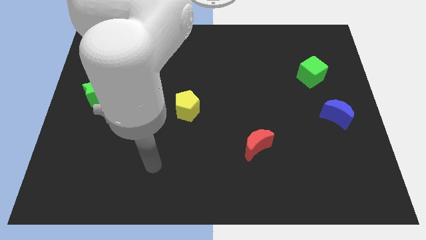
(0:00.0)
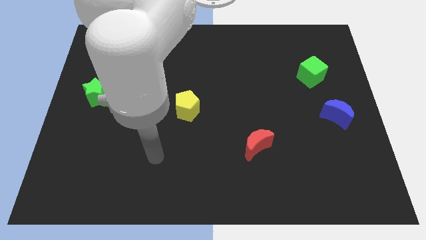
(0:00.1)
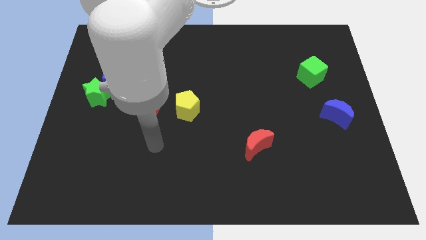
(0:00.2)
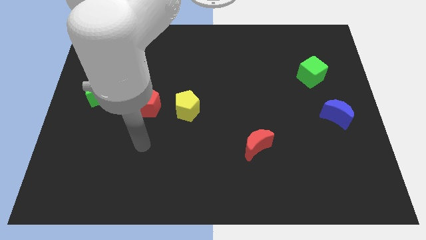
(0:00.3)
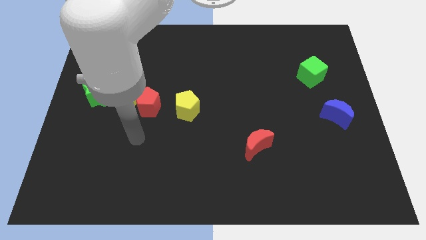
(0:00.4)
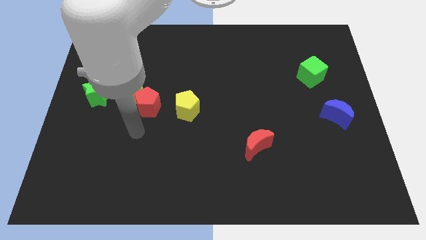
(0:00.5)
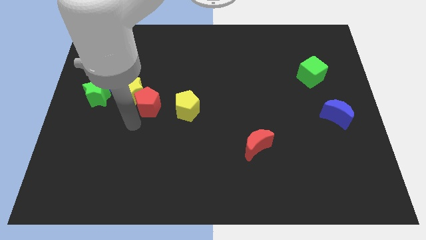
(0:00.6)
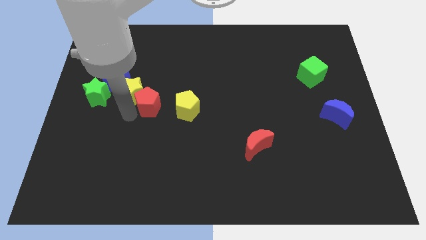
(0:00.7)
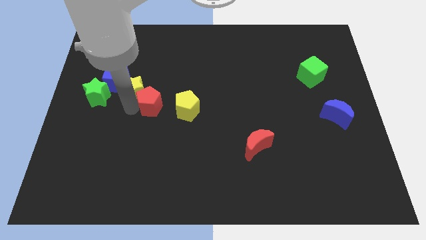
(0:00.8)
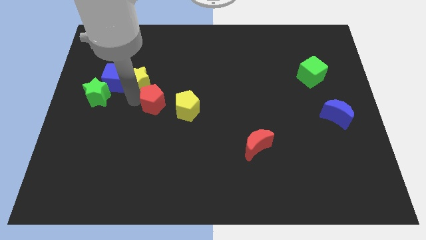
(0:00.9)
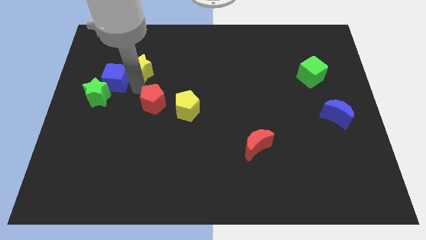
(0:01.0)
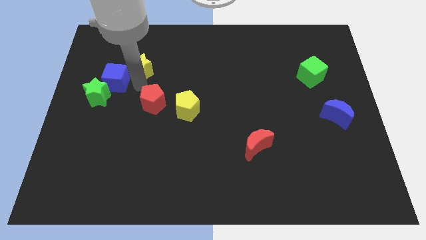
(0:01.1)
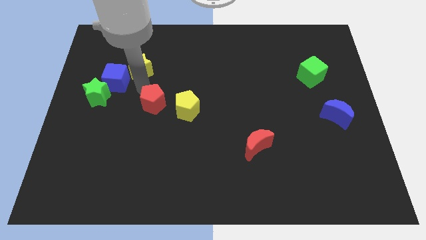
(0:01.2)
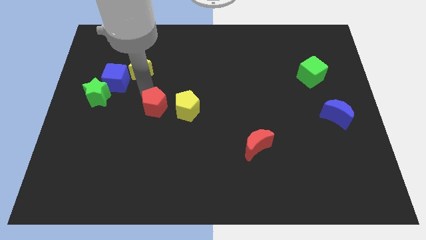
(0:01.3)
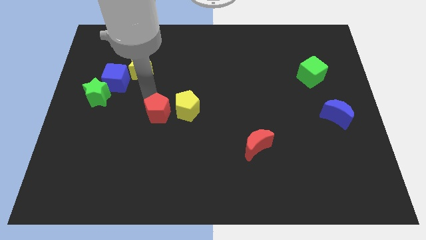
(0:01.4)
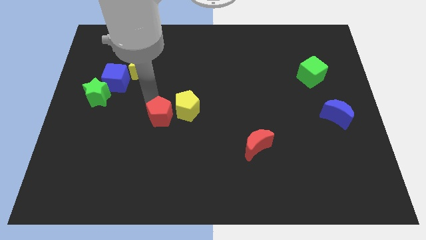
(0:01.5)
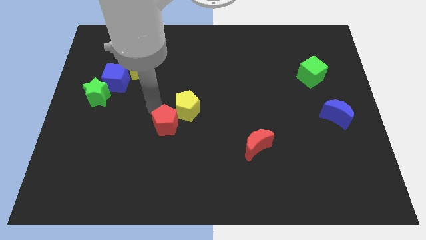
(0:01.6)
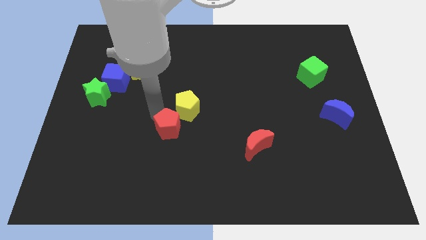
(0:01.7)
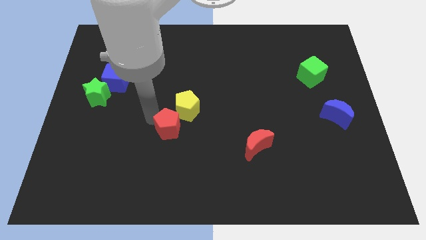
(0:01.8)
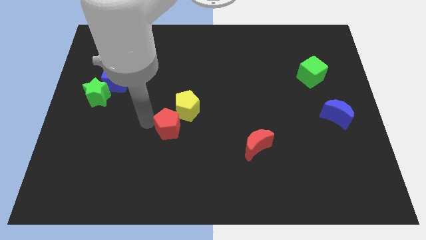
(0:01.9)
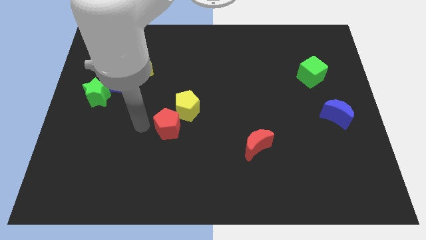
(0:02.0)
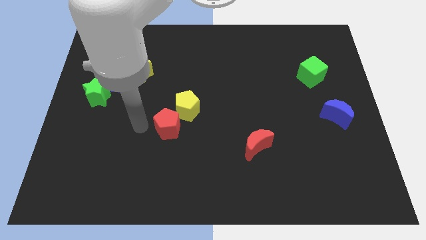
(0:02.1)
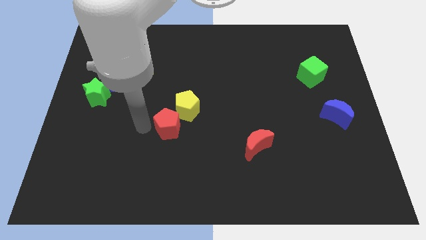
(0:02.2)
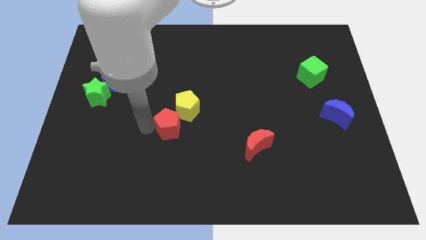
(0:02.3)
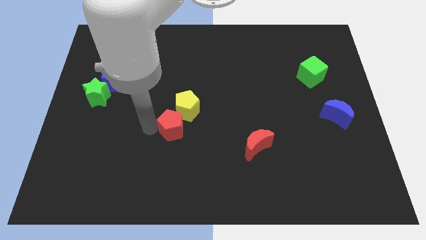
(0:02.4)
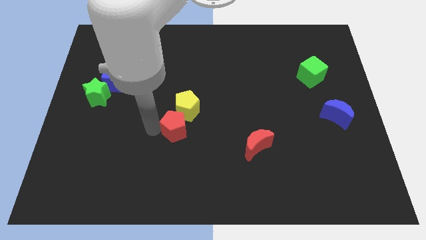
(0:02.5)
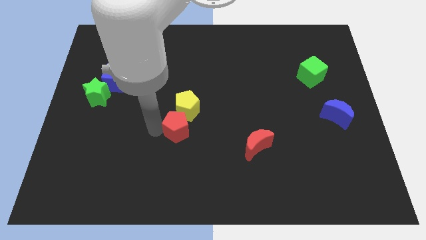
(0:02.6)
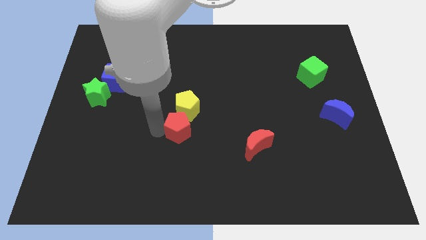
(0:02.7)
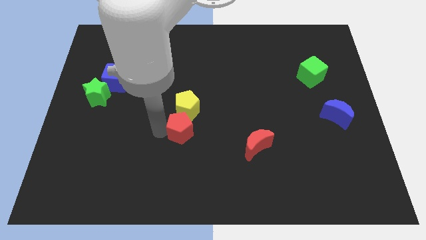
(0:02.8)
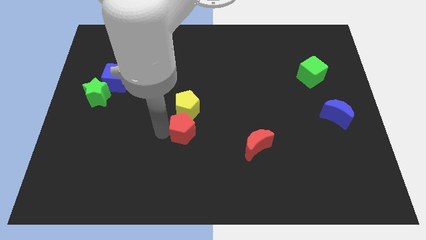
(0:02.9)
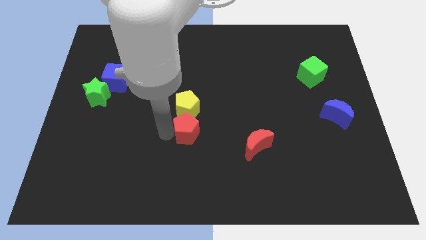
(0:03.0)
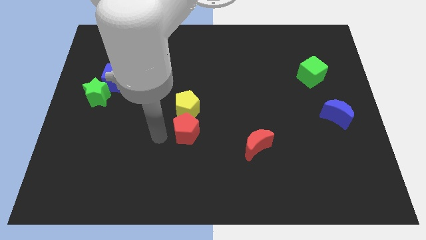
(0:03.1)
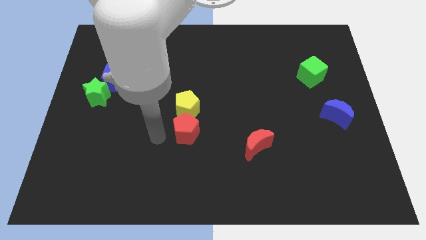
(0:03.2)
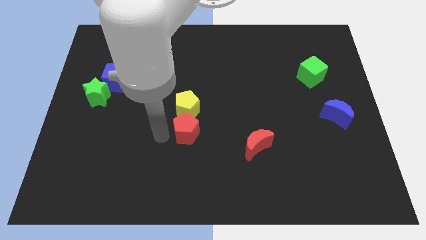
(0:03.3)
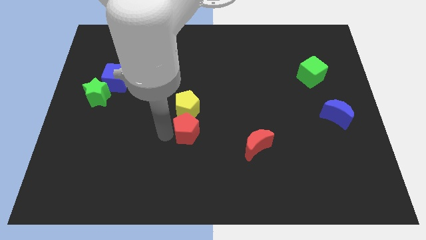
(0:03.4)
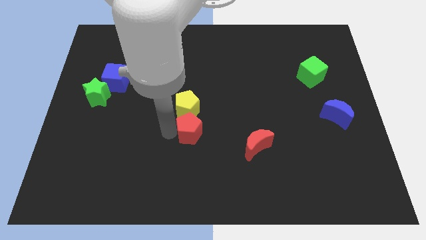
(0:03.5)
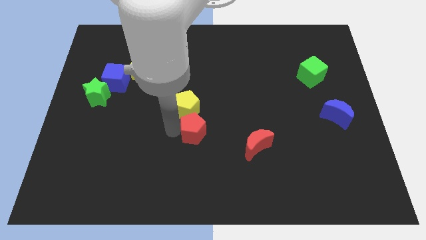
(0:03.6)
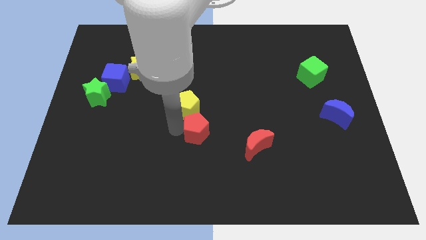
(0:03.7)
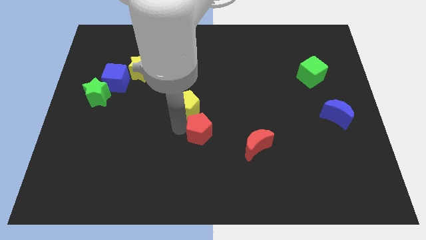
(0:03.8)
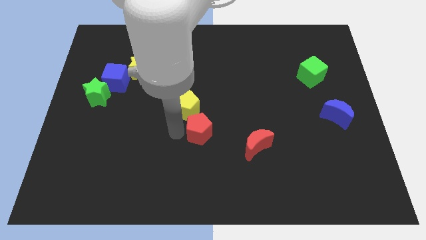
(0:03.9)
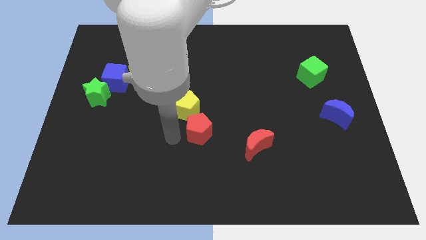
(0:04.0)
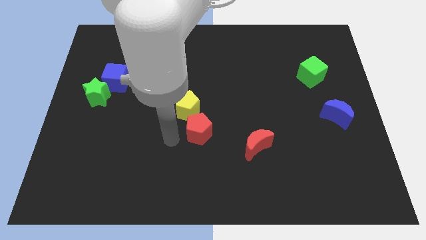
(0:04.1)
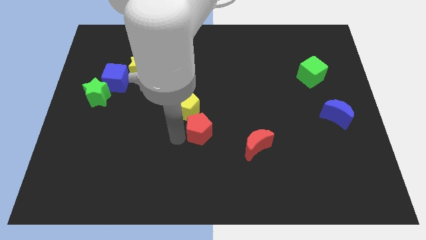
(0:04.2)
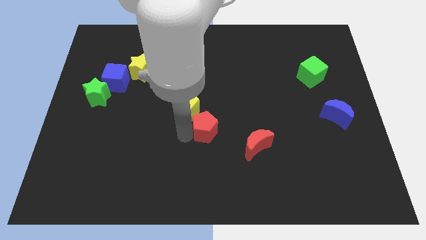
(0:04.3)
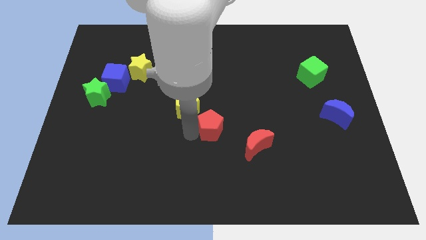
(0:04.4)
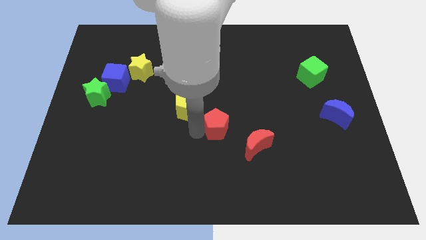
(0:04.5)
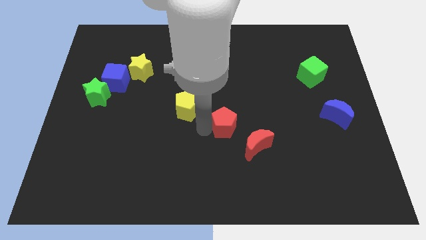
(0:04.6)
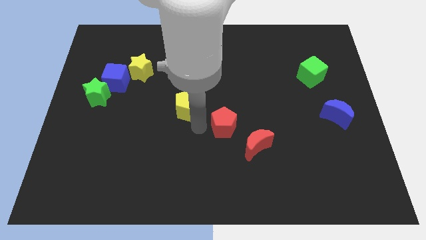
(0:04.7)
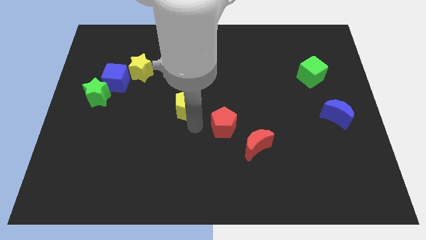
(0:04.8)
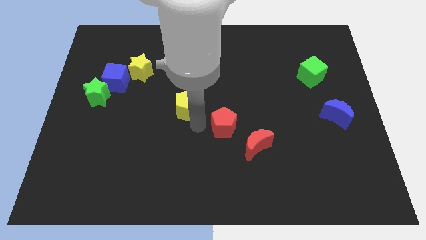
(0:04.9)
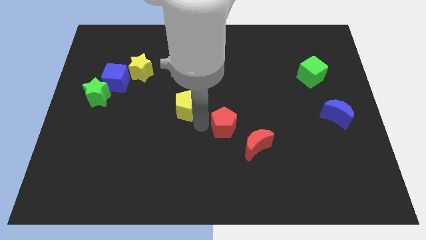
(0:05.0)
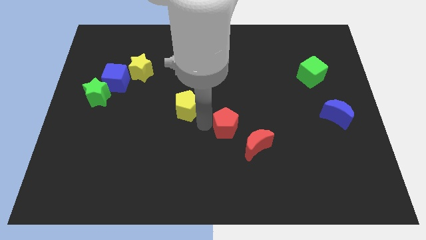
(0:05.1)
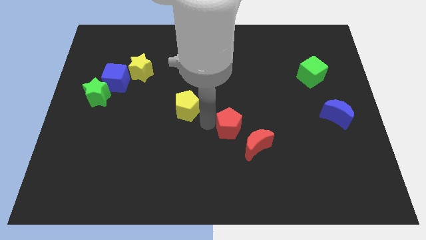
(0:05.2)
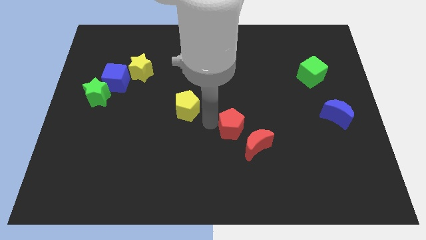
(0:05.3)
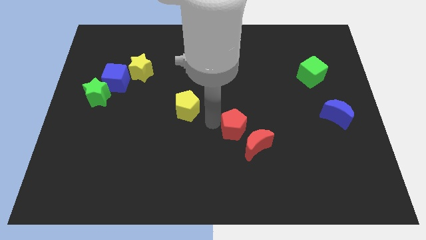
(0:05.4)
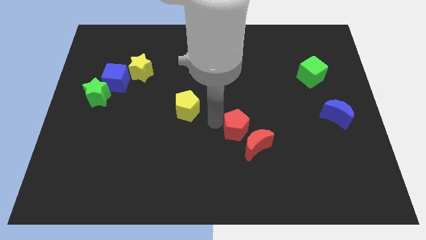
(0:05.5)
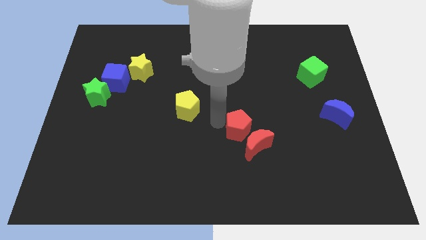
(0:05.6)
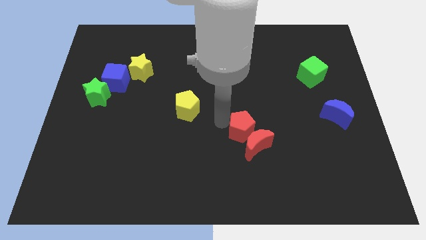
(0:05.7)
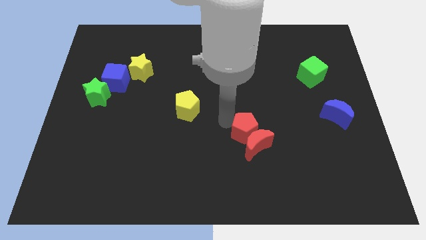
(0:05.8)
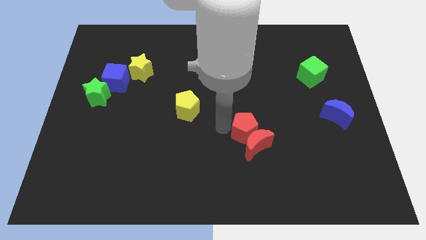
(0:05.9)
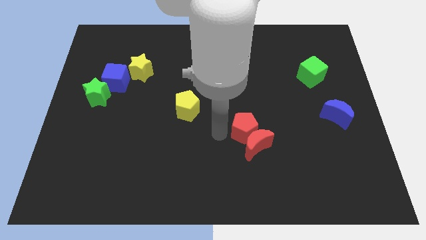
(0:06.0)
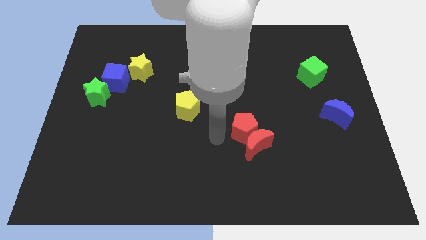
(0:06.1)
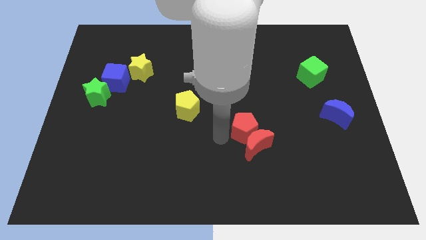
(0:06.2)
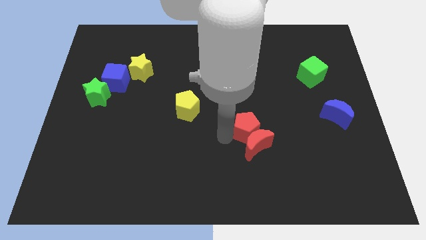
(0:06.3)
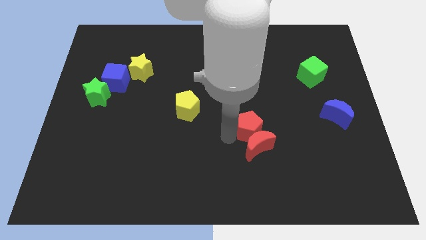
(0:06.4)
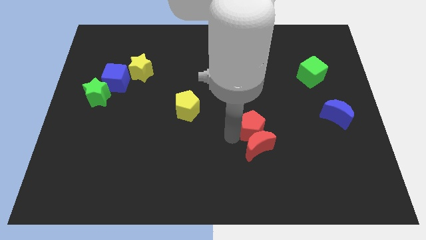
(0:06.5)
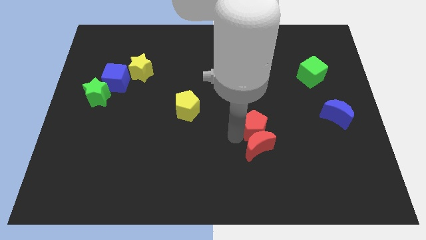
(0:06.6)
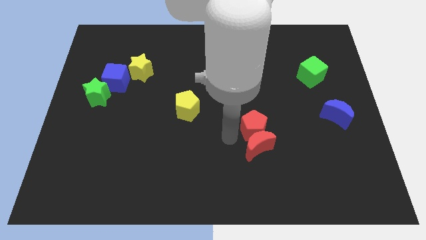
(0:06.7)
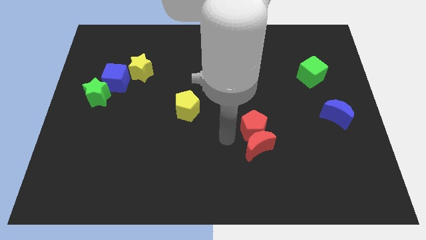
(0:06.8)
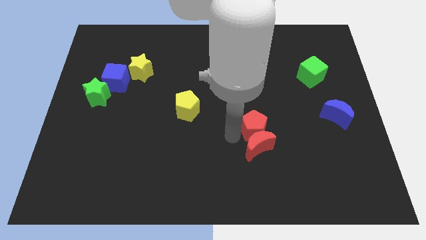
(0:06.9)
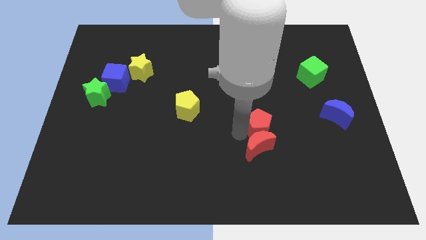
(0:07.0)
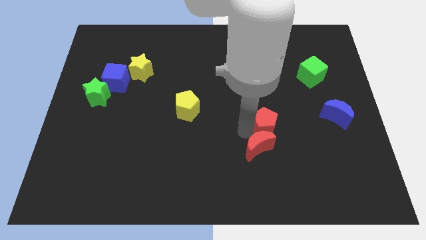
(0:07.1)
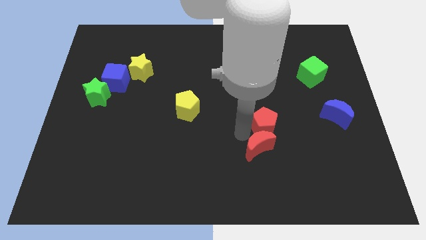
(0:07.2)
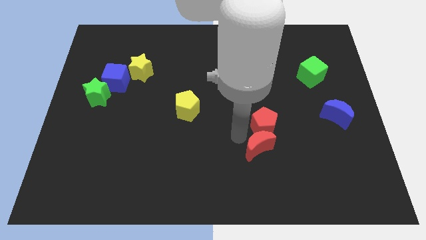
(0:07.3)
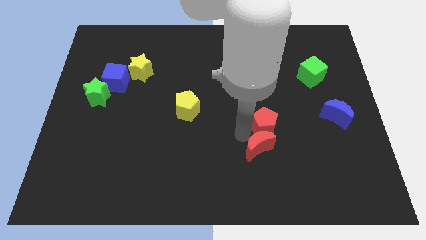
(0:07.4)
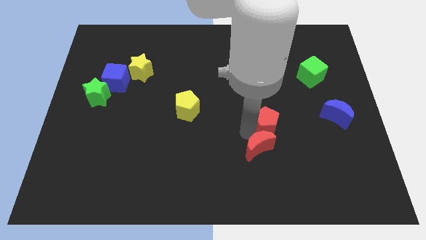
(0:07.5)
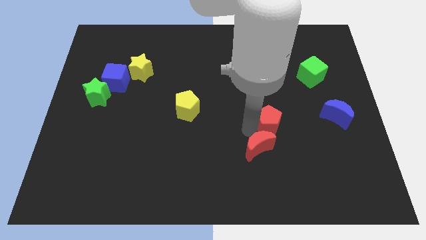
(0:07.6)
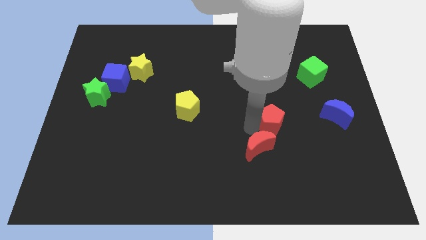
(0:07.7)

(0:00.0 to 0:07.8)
push the red pentagon to the left of the blue moon
